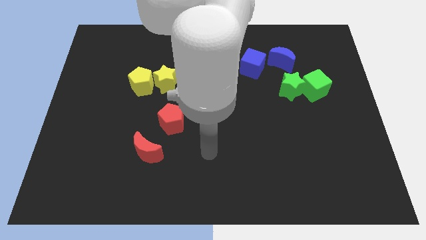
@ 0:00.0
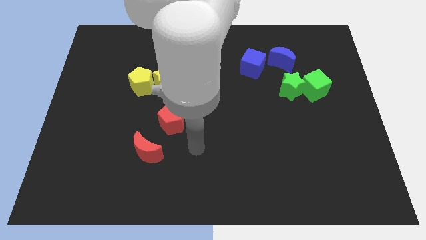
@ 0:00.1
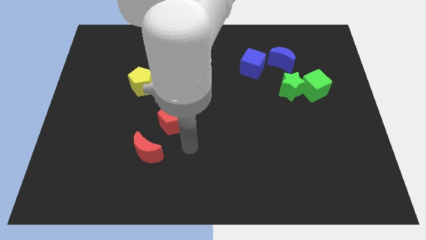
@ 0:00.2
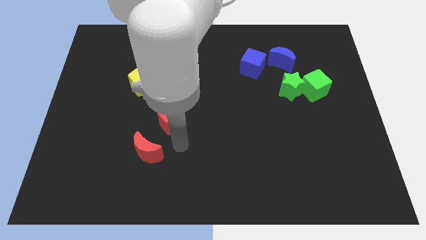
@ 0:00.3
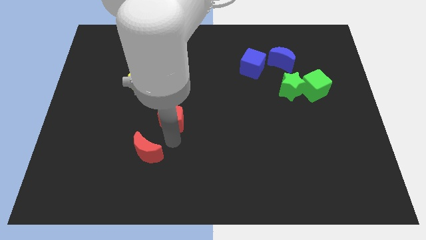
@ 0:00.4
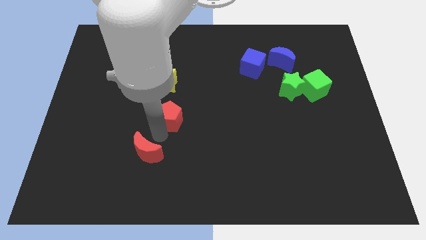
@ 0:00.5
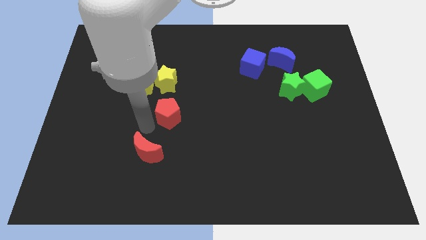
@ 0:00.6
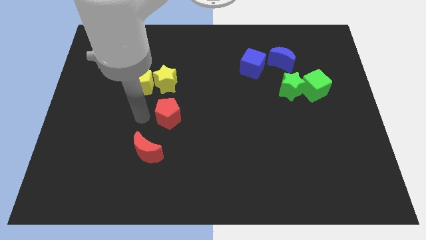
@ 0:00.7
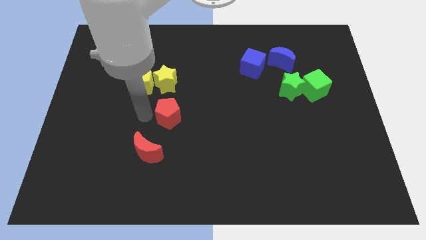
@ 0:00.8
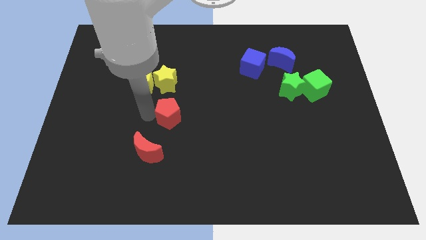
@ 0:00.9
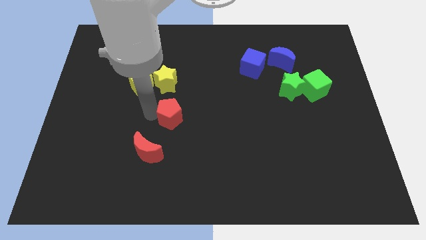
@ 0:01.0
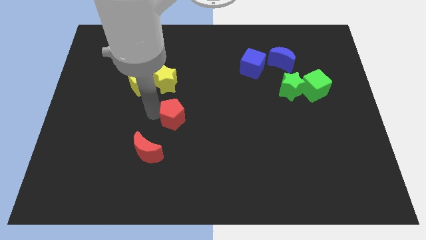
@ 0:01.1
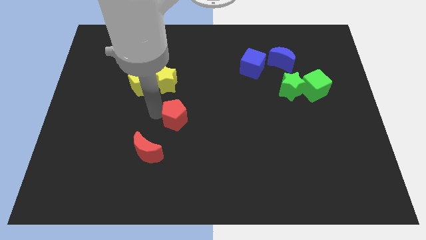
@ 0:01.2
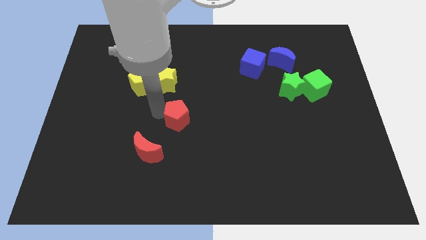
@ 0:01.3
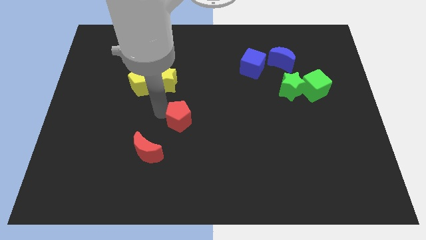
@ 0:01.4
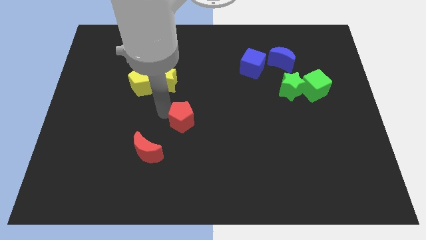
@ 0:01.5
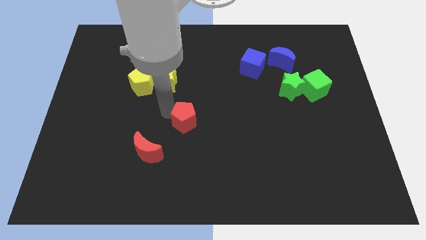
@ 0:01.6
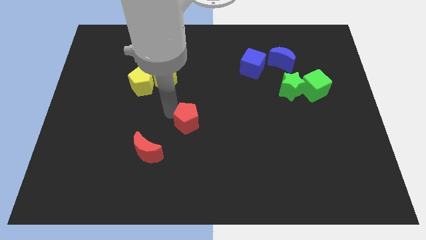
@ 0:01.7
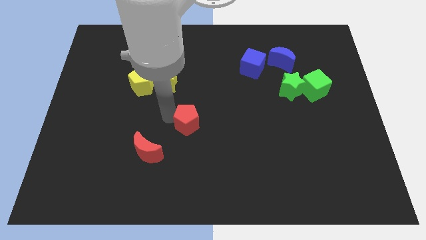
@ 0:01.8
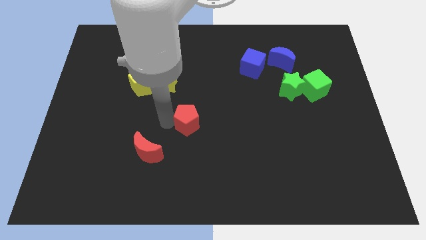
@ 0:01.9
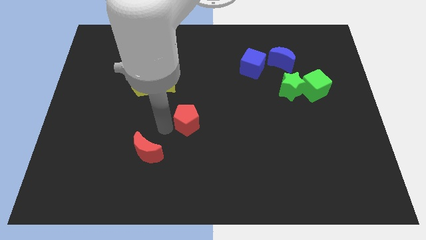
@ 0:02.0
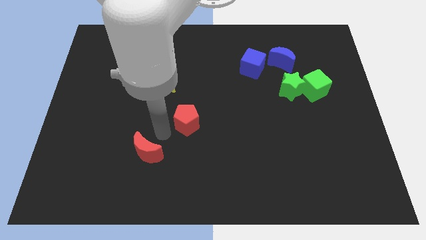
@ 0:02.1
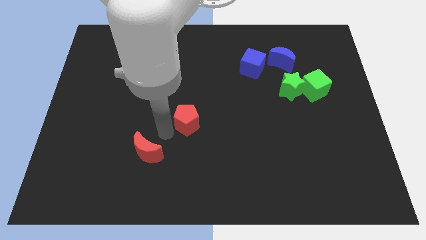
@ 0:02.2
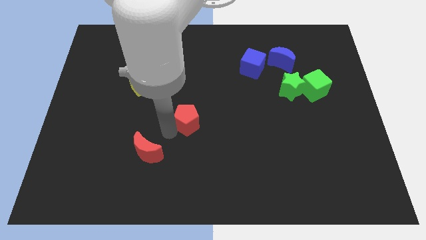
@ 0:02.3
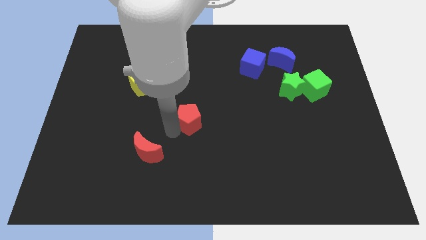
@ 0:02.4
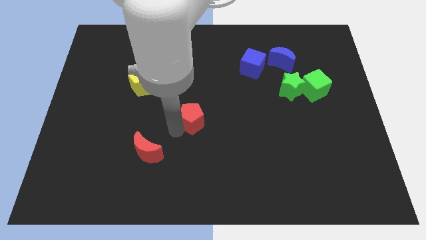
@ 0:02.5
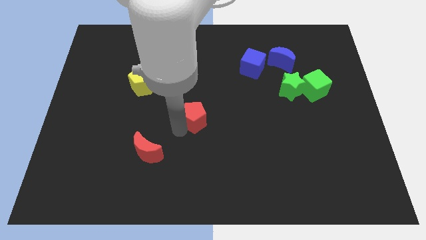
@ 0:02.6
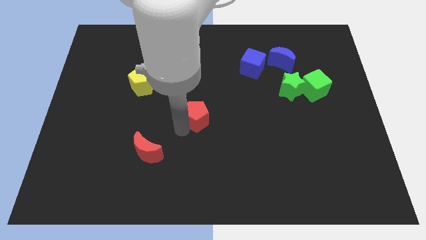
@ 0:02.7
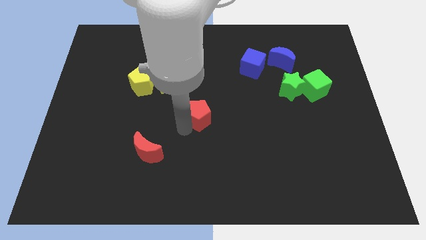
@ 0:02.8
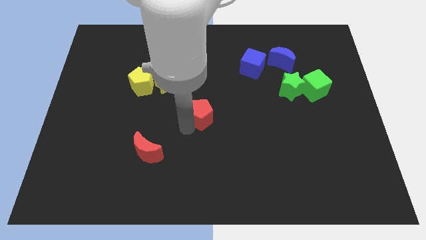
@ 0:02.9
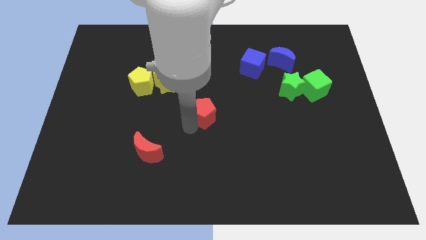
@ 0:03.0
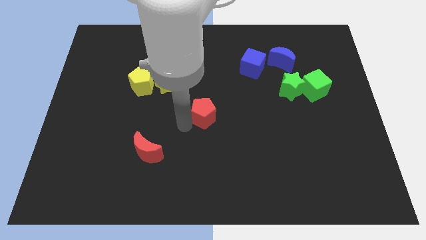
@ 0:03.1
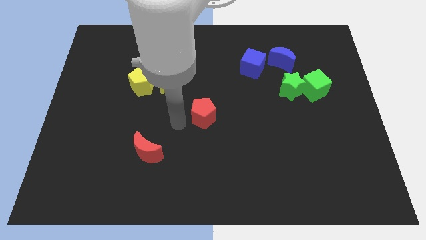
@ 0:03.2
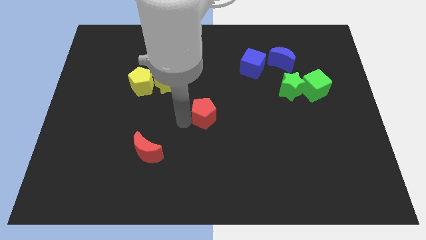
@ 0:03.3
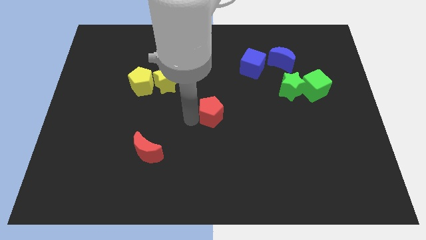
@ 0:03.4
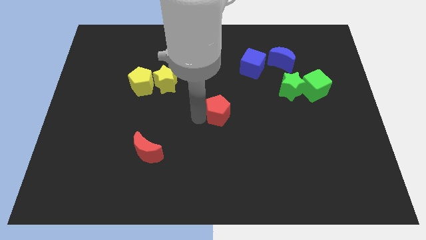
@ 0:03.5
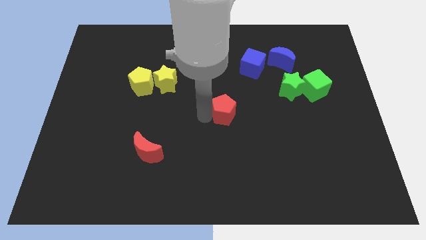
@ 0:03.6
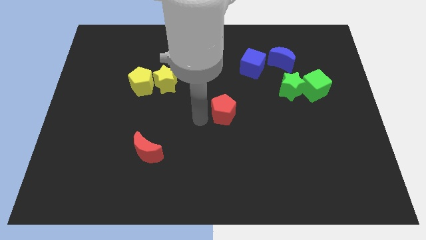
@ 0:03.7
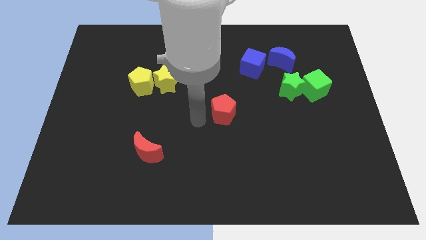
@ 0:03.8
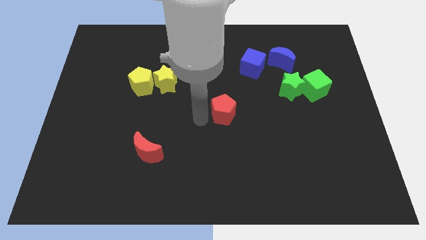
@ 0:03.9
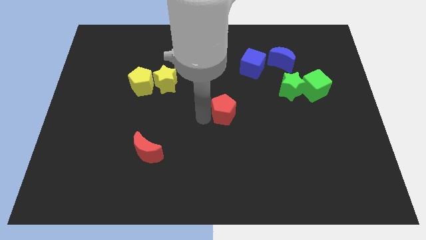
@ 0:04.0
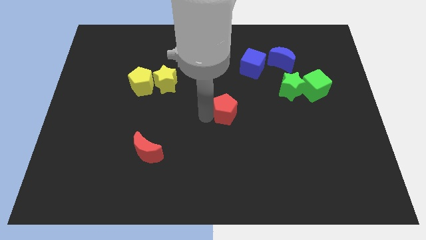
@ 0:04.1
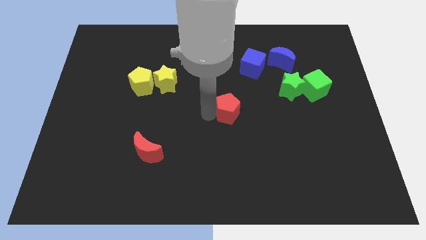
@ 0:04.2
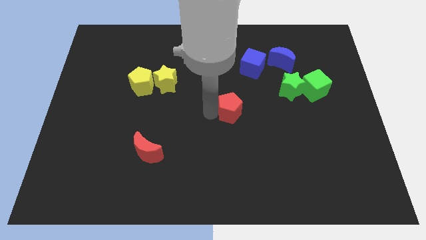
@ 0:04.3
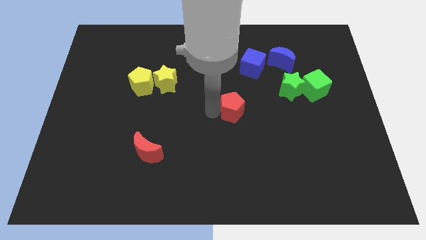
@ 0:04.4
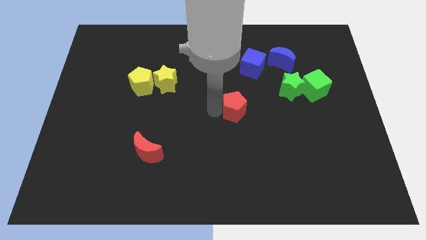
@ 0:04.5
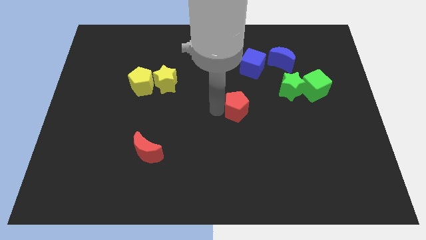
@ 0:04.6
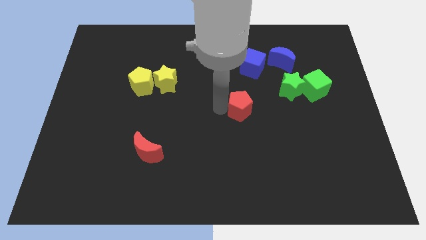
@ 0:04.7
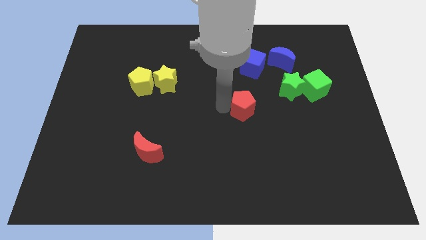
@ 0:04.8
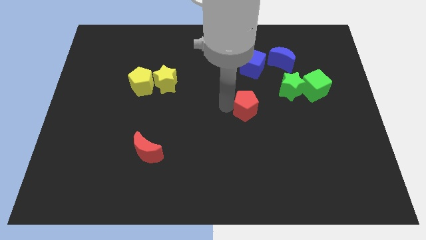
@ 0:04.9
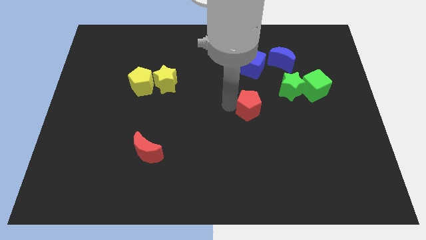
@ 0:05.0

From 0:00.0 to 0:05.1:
put the red pentagon to the bottom left side of the green star

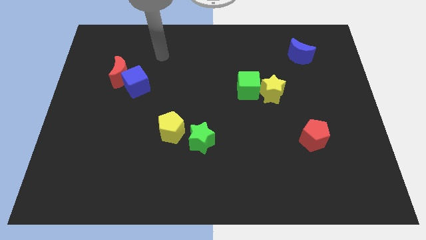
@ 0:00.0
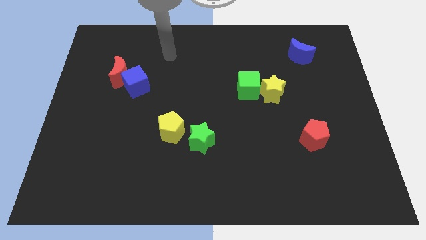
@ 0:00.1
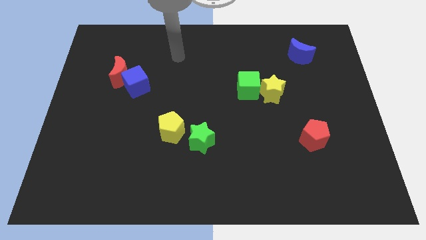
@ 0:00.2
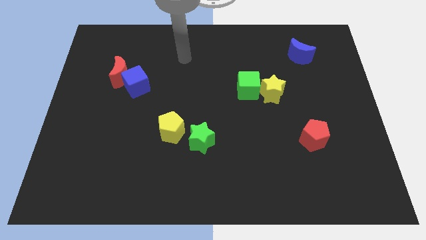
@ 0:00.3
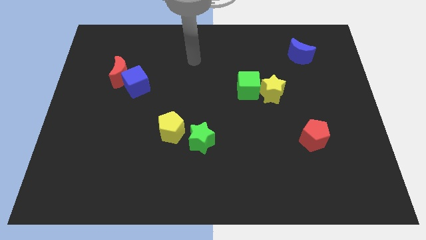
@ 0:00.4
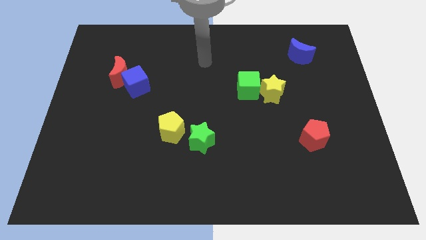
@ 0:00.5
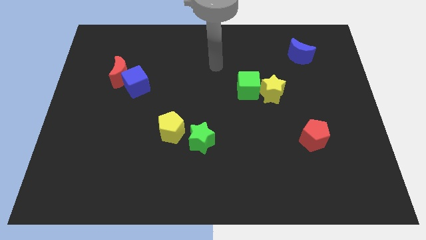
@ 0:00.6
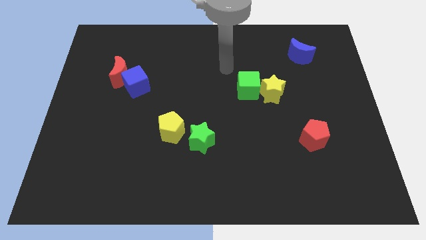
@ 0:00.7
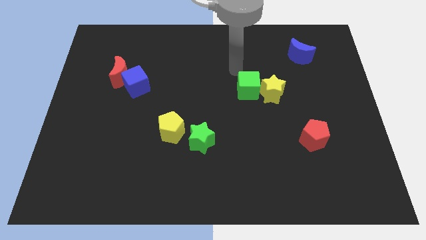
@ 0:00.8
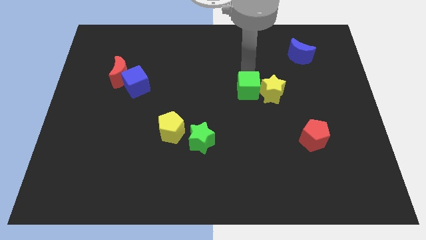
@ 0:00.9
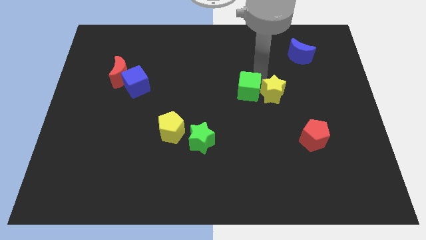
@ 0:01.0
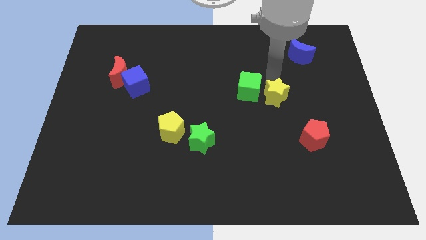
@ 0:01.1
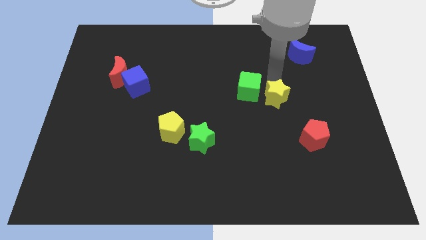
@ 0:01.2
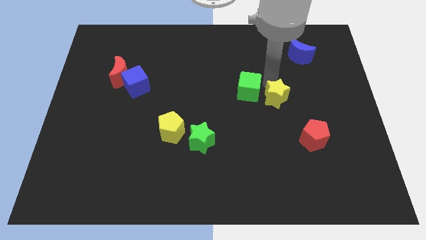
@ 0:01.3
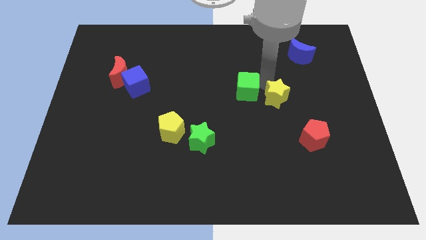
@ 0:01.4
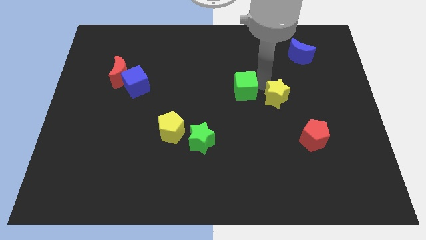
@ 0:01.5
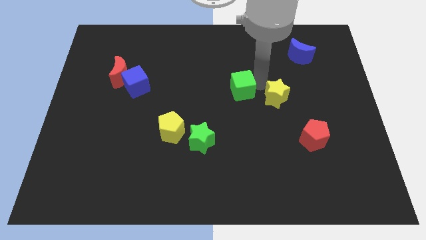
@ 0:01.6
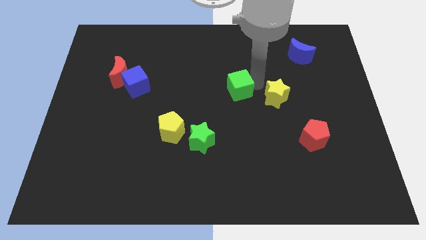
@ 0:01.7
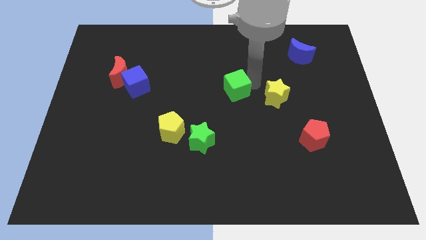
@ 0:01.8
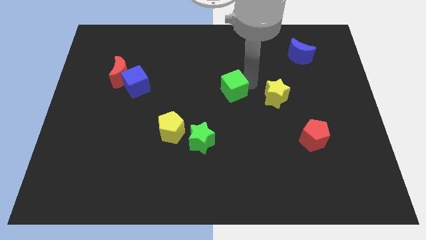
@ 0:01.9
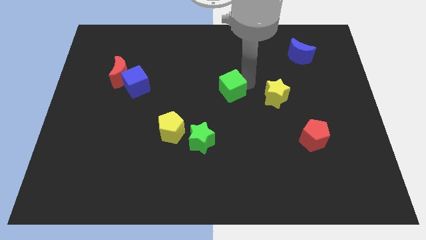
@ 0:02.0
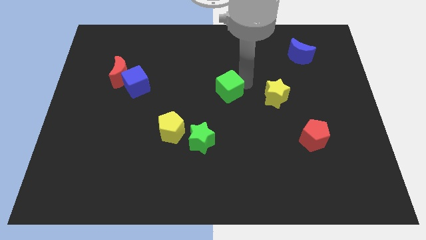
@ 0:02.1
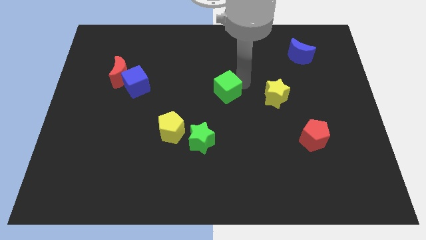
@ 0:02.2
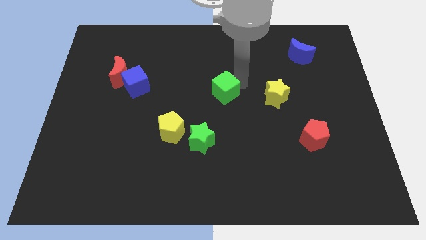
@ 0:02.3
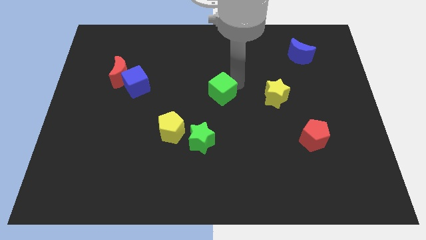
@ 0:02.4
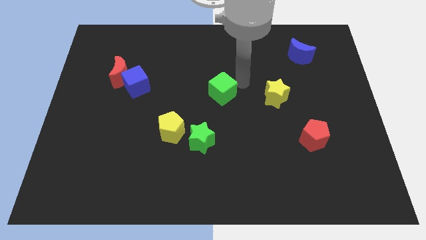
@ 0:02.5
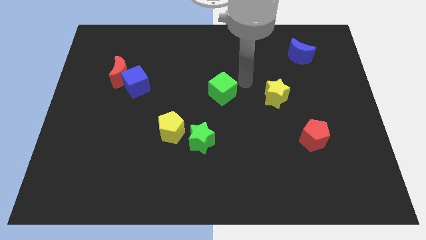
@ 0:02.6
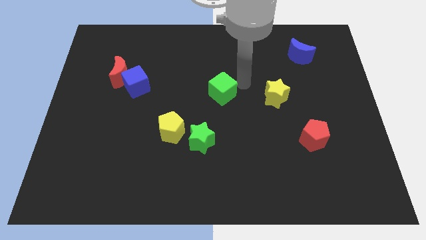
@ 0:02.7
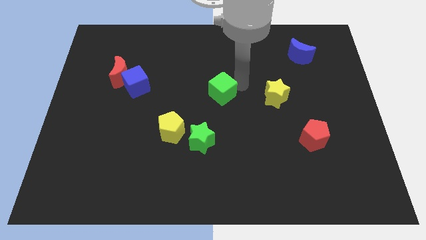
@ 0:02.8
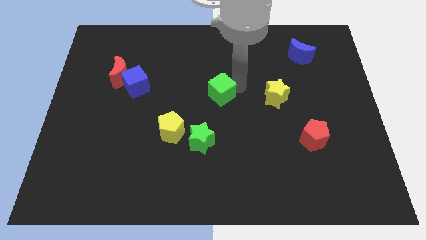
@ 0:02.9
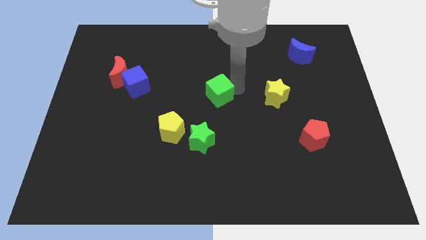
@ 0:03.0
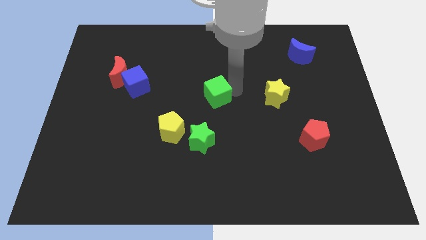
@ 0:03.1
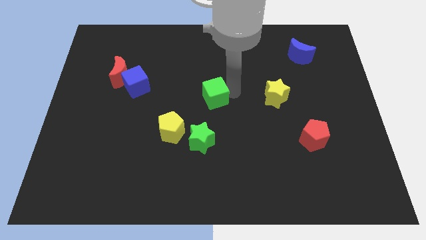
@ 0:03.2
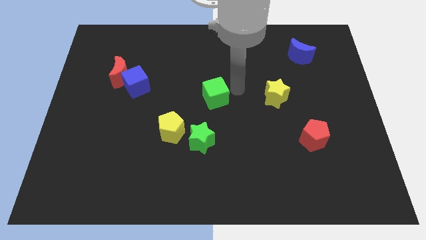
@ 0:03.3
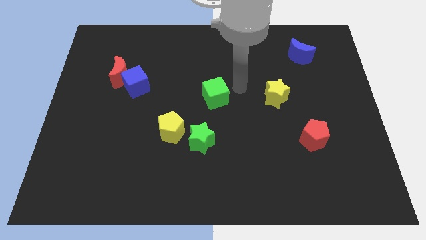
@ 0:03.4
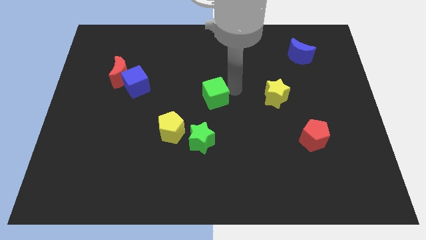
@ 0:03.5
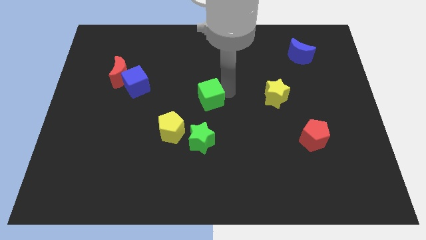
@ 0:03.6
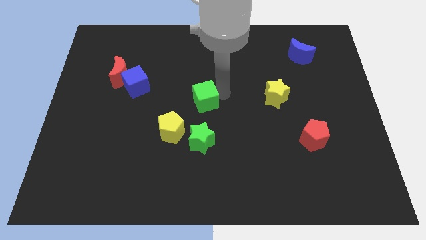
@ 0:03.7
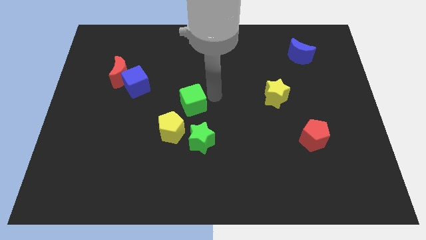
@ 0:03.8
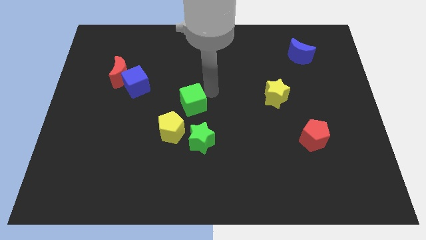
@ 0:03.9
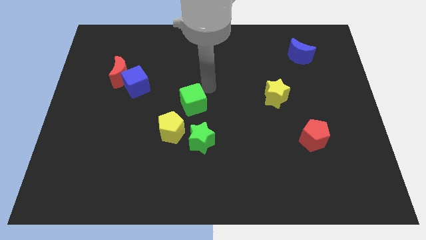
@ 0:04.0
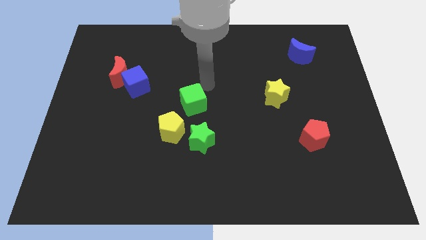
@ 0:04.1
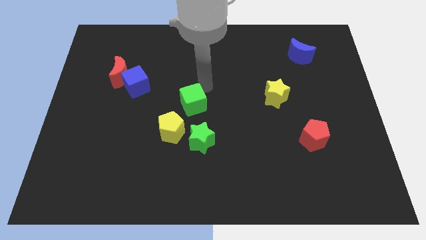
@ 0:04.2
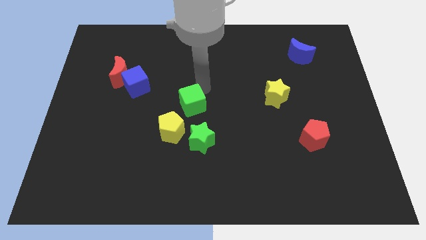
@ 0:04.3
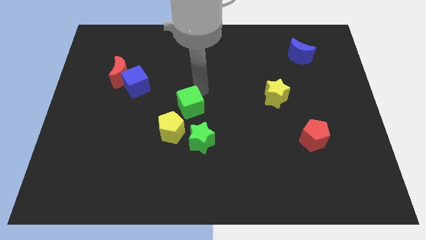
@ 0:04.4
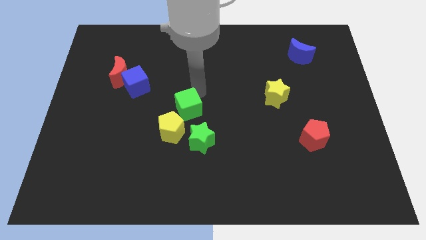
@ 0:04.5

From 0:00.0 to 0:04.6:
push the green cube to the top left of the green star
